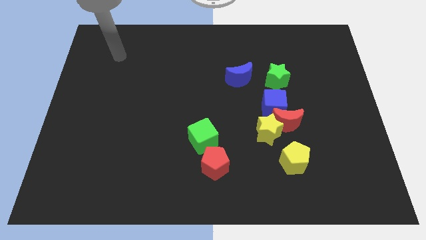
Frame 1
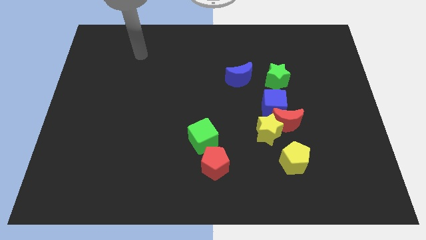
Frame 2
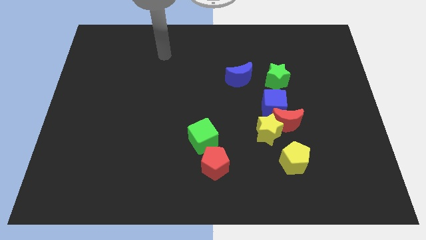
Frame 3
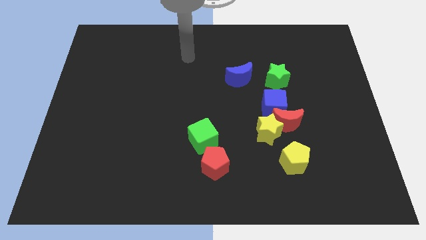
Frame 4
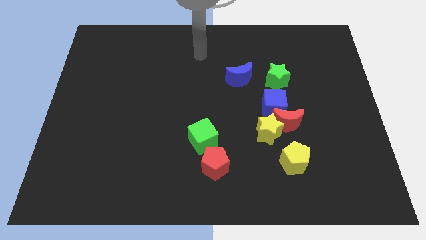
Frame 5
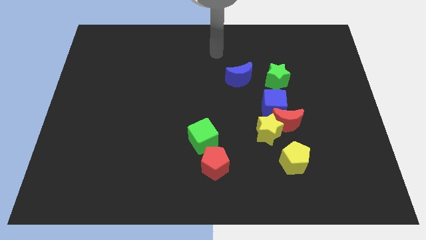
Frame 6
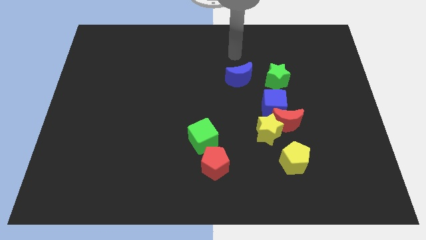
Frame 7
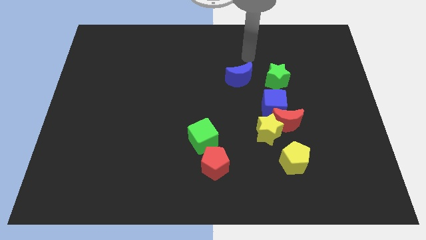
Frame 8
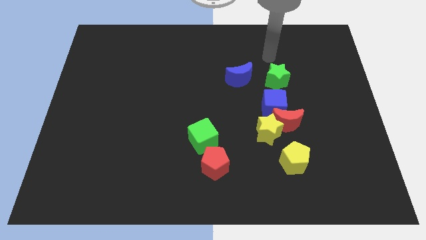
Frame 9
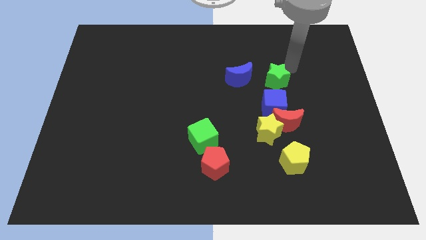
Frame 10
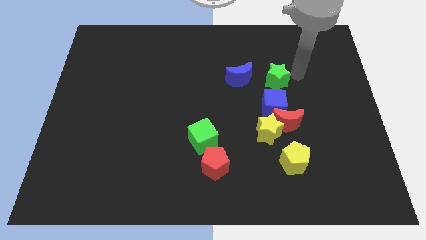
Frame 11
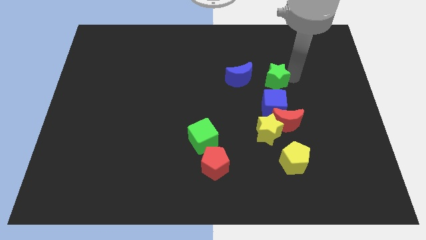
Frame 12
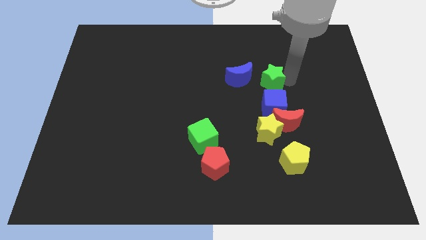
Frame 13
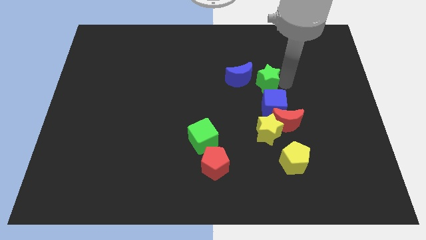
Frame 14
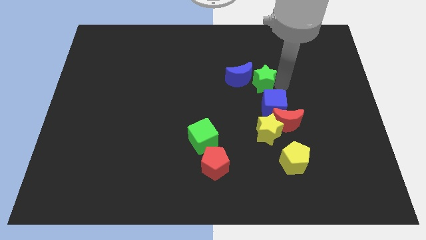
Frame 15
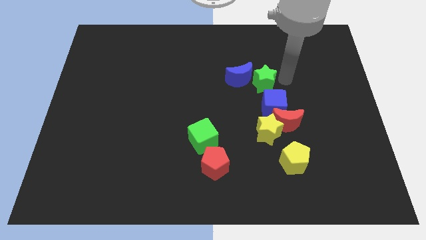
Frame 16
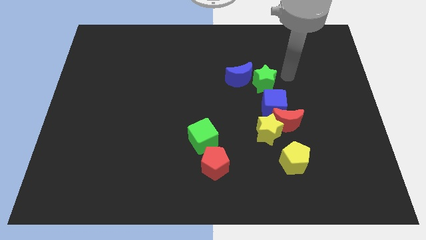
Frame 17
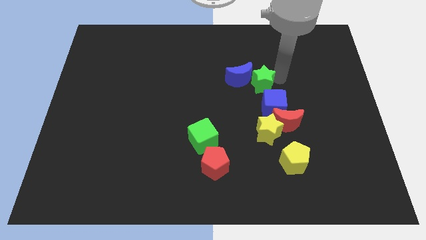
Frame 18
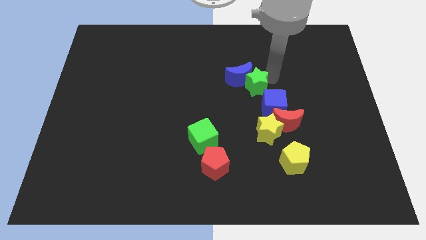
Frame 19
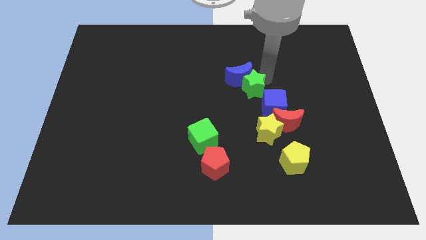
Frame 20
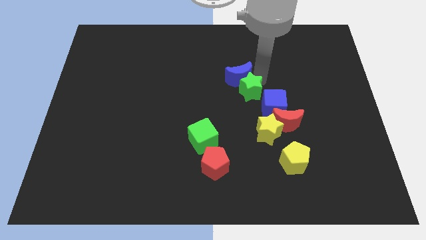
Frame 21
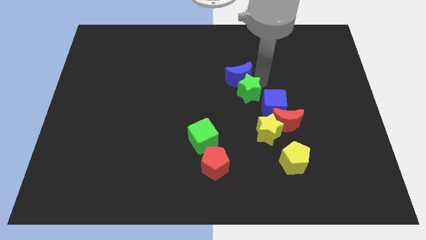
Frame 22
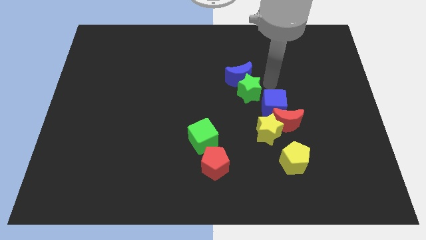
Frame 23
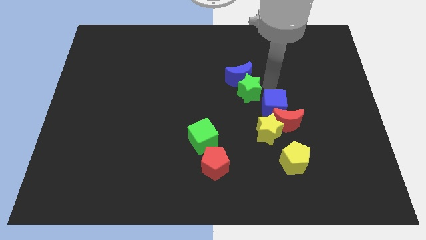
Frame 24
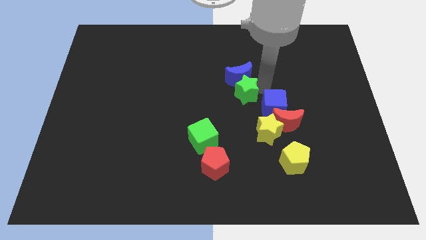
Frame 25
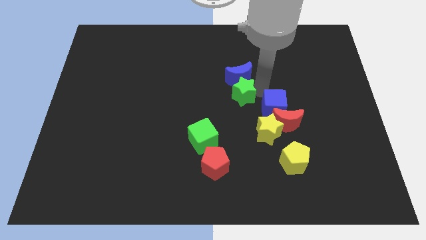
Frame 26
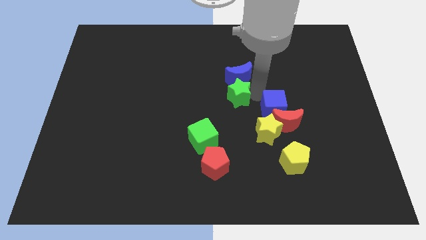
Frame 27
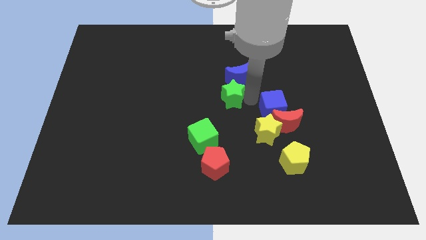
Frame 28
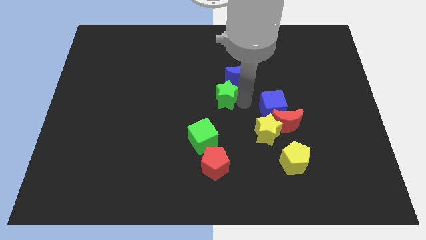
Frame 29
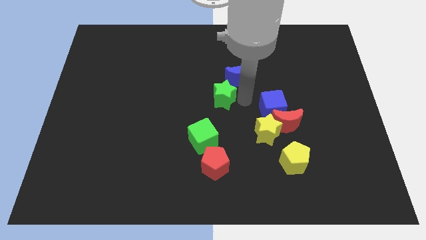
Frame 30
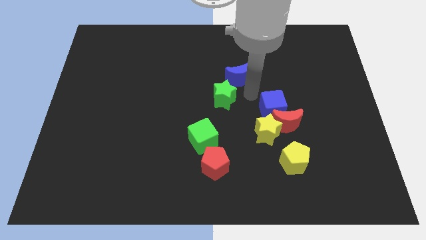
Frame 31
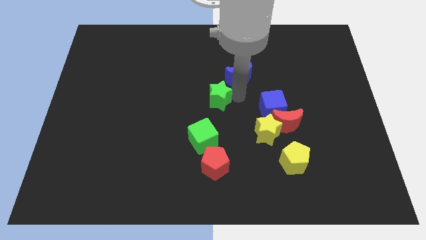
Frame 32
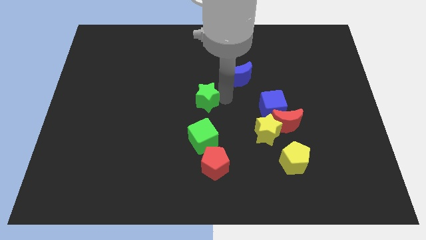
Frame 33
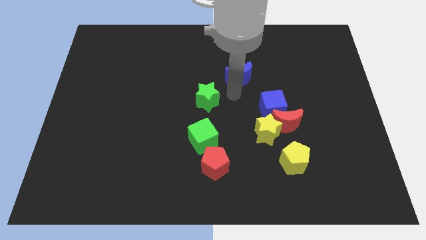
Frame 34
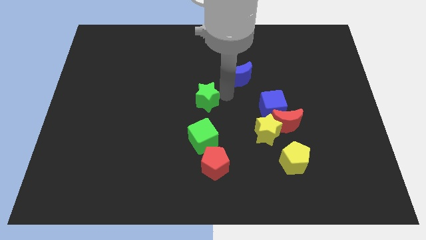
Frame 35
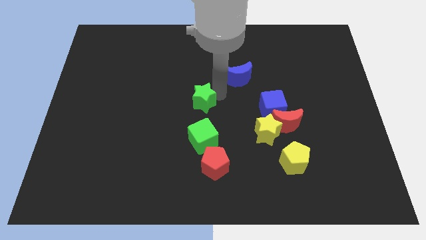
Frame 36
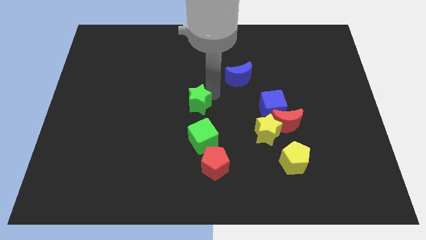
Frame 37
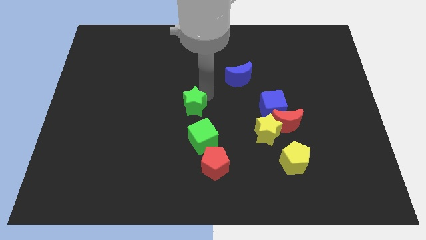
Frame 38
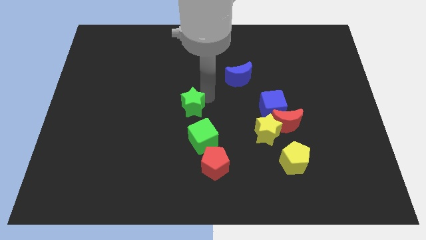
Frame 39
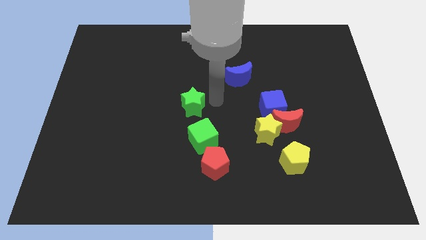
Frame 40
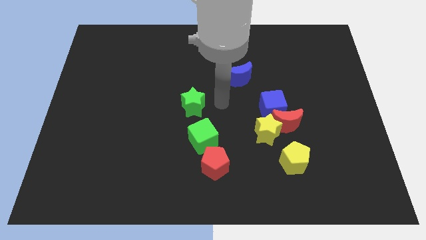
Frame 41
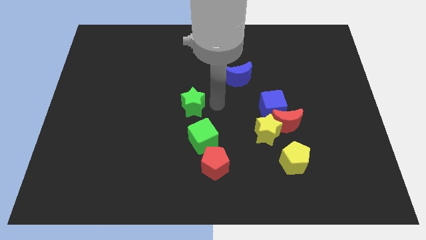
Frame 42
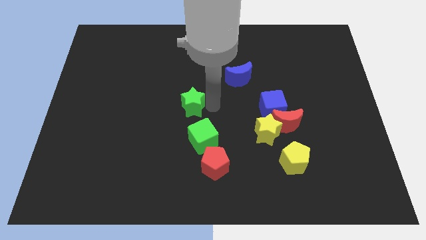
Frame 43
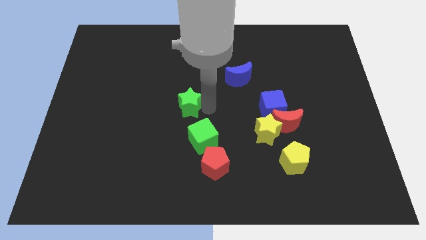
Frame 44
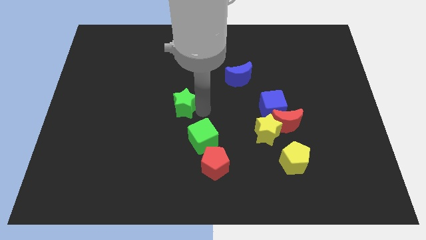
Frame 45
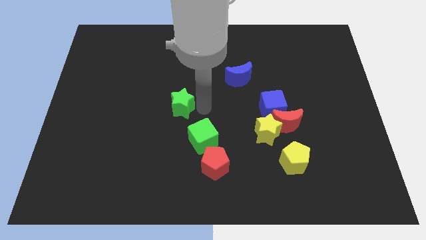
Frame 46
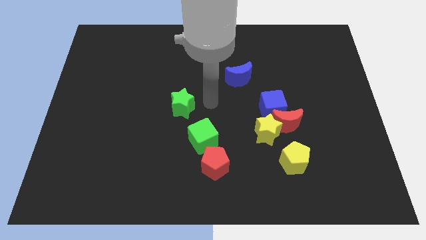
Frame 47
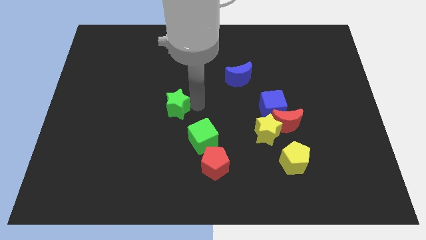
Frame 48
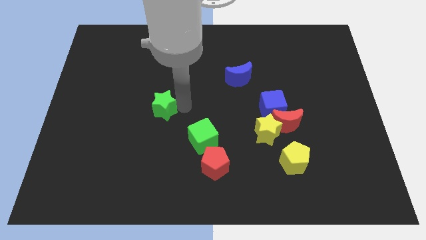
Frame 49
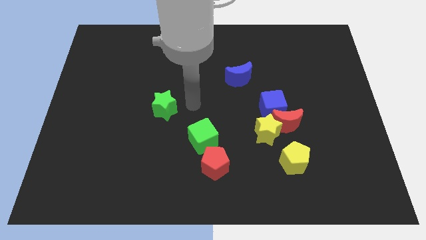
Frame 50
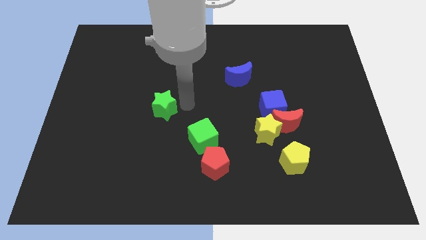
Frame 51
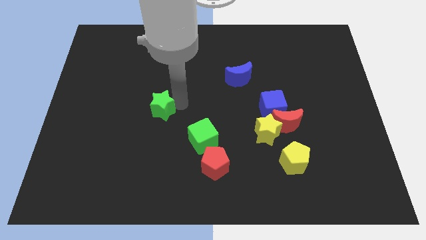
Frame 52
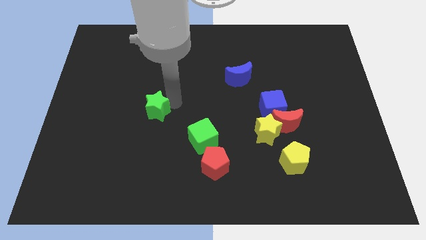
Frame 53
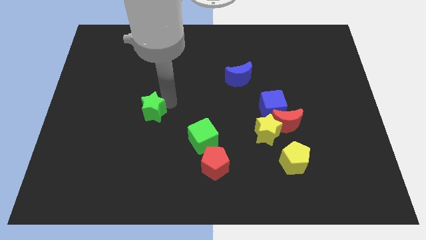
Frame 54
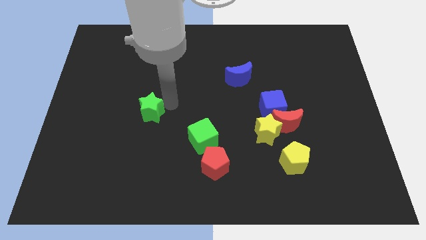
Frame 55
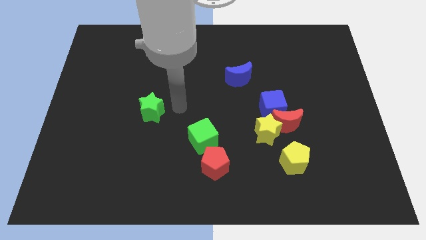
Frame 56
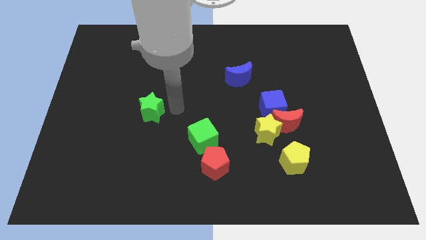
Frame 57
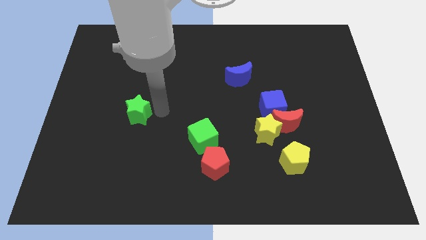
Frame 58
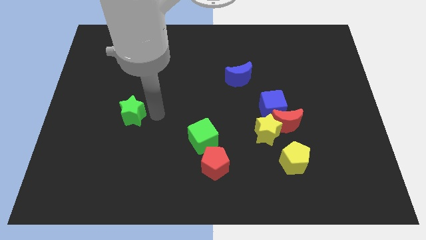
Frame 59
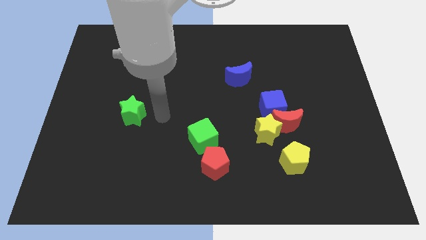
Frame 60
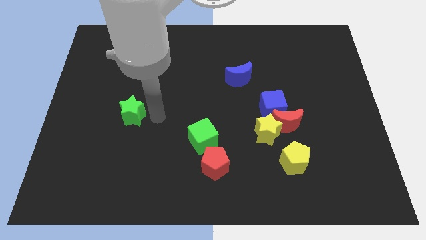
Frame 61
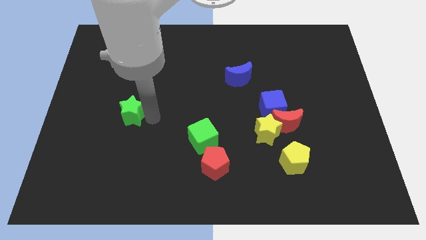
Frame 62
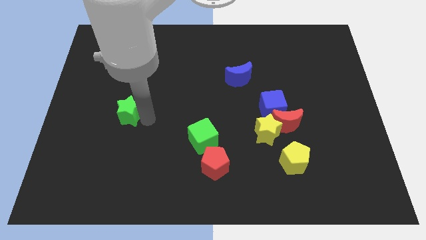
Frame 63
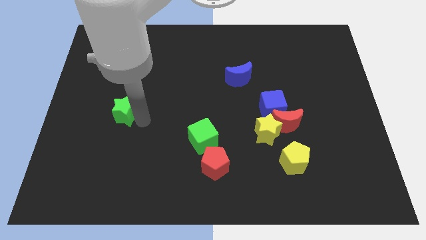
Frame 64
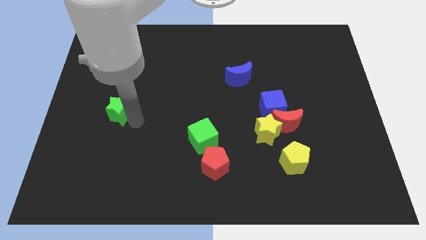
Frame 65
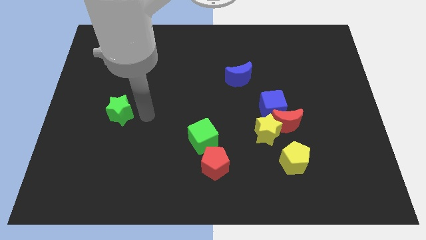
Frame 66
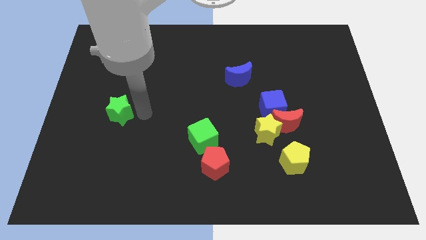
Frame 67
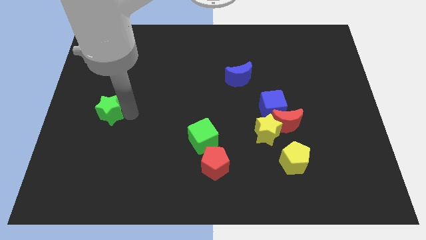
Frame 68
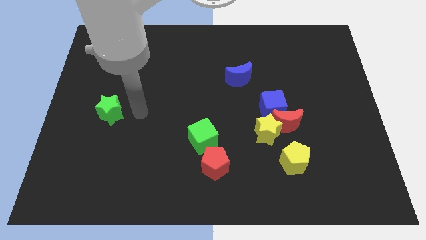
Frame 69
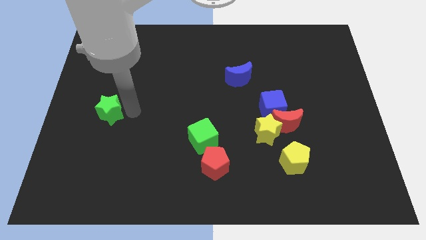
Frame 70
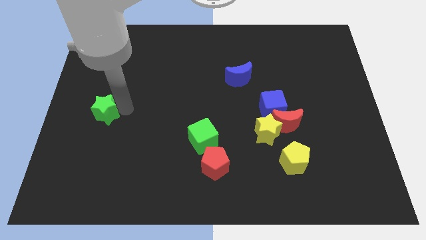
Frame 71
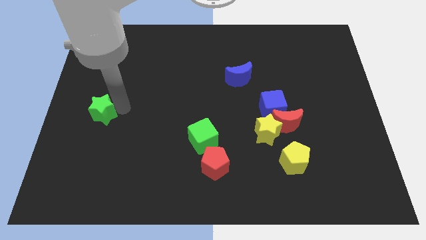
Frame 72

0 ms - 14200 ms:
push the green star to the left side
